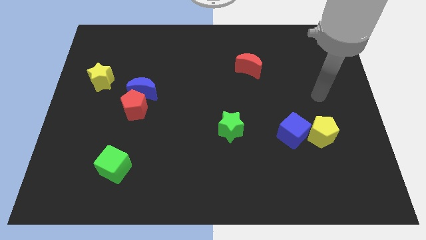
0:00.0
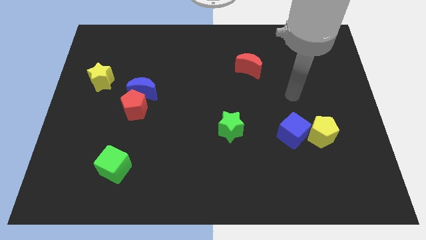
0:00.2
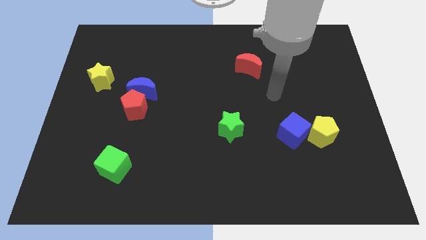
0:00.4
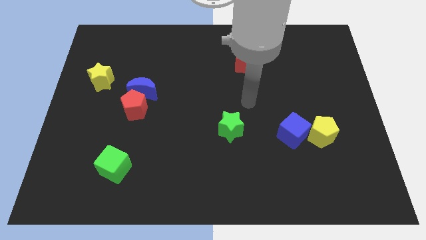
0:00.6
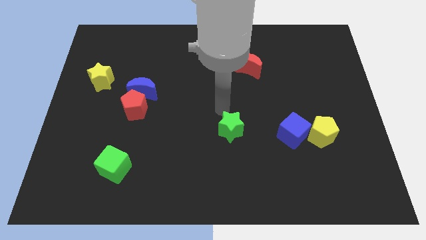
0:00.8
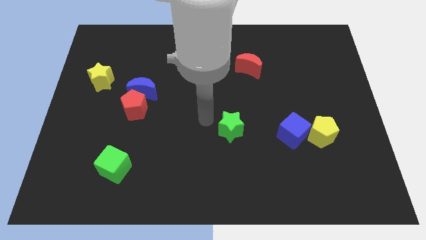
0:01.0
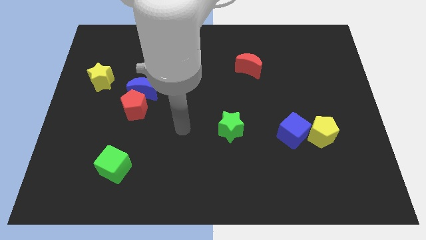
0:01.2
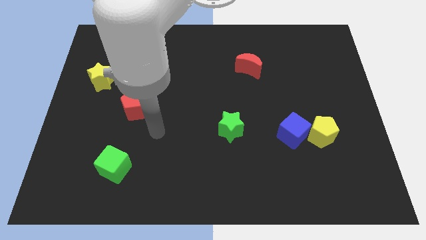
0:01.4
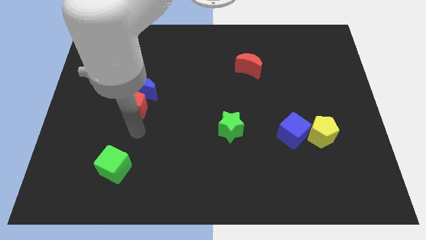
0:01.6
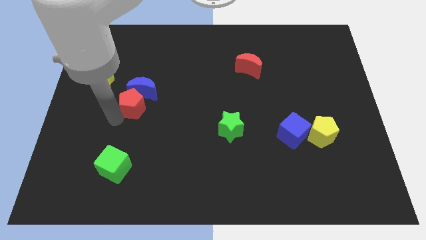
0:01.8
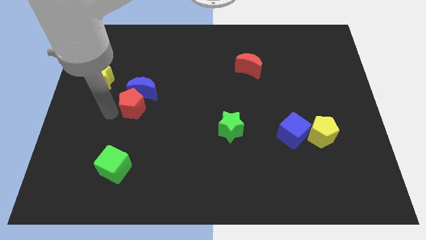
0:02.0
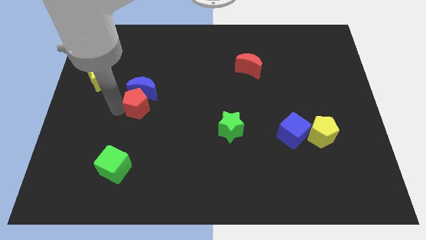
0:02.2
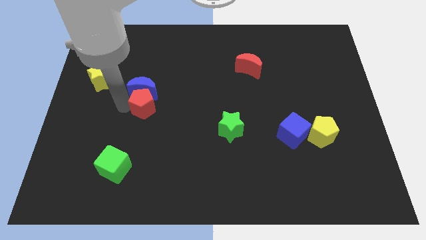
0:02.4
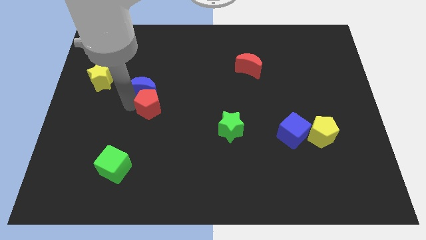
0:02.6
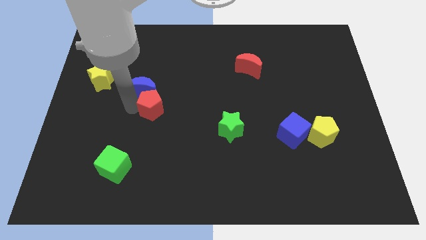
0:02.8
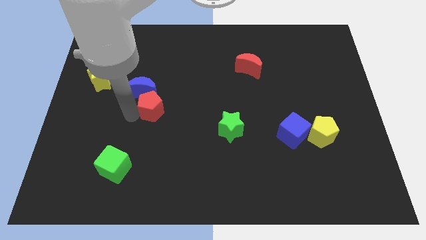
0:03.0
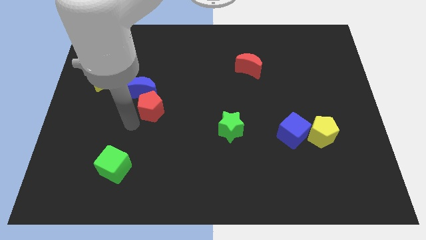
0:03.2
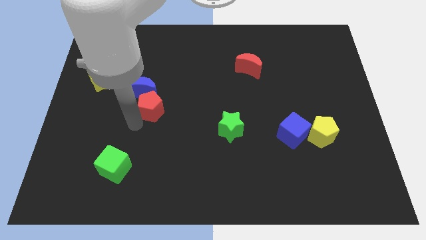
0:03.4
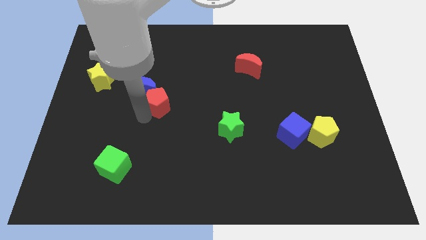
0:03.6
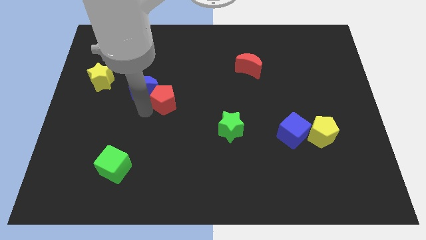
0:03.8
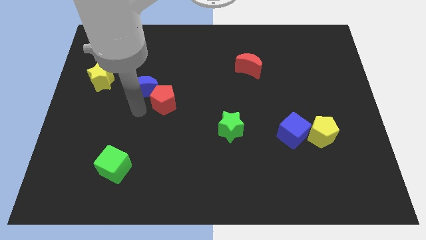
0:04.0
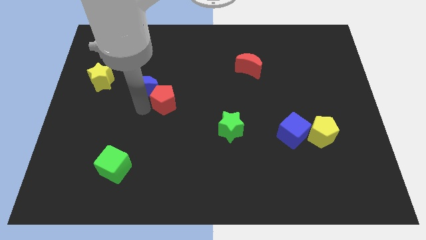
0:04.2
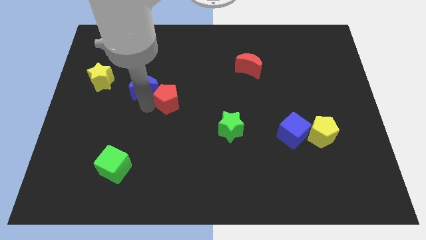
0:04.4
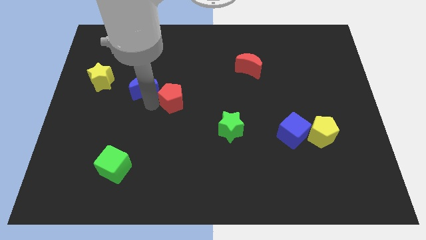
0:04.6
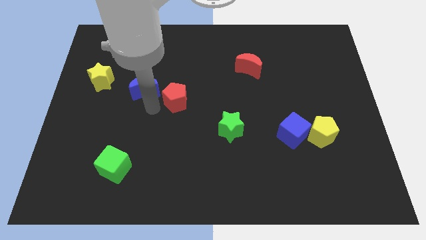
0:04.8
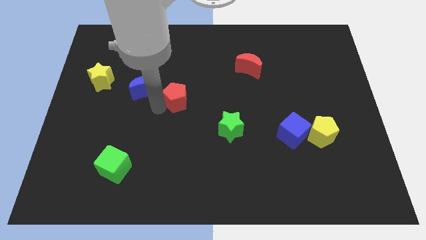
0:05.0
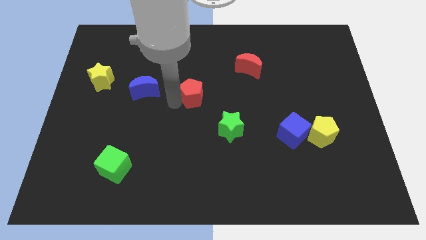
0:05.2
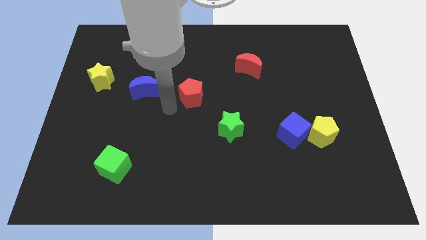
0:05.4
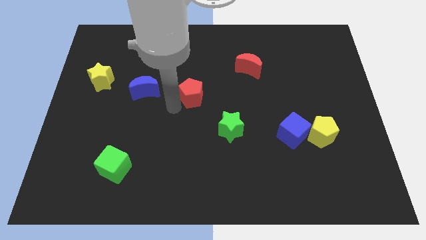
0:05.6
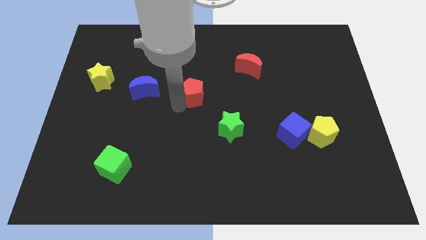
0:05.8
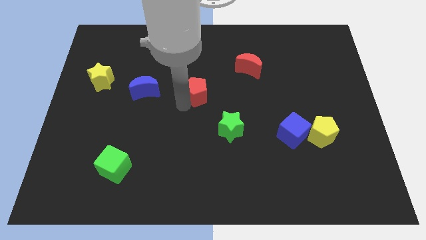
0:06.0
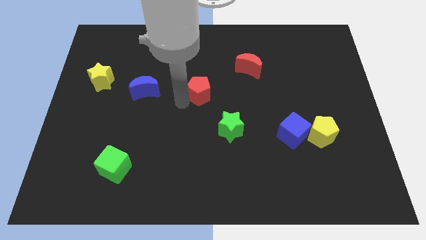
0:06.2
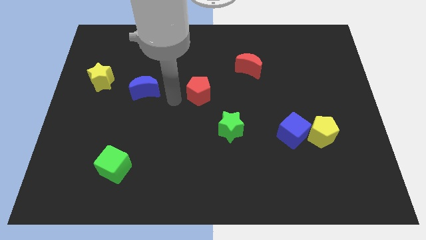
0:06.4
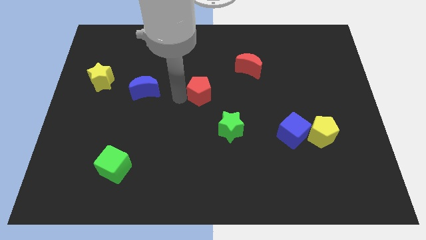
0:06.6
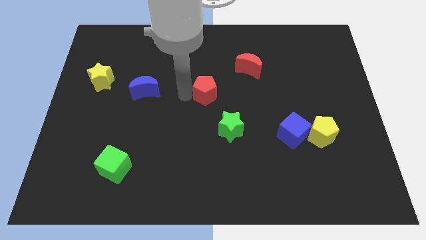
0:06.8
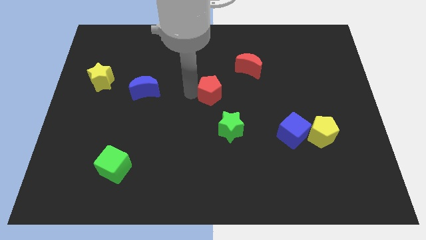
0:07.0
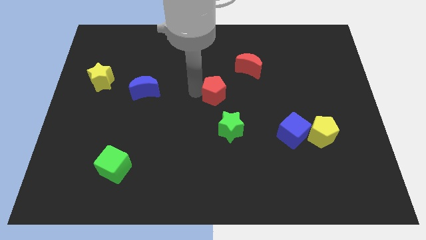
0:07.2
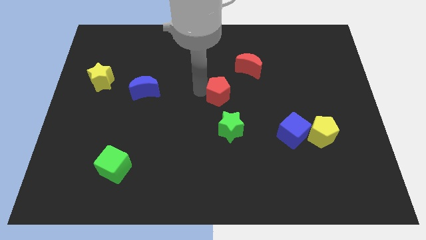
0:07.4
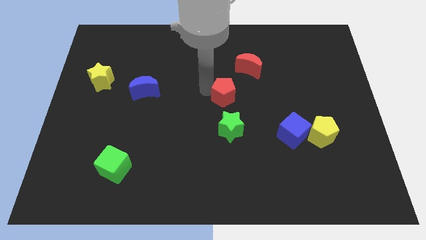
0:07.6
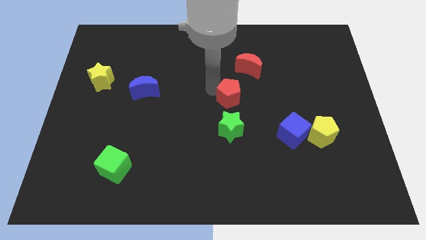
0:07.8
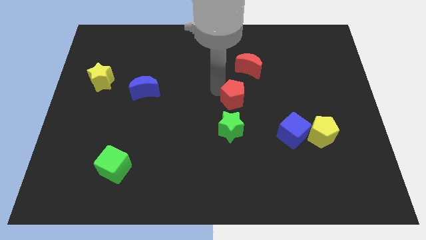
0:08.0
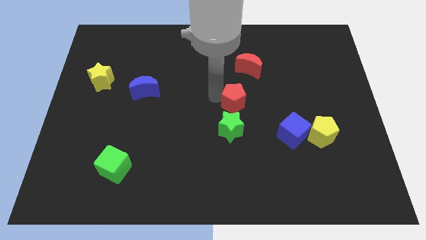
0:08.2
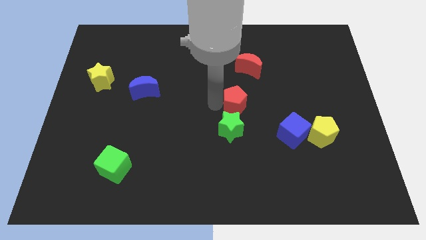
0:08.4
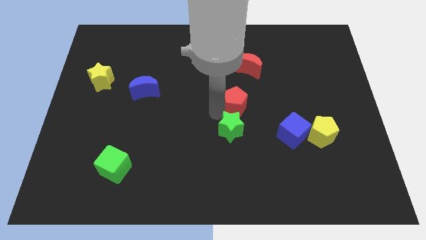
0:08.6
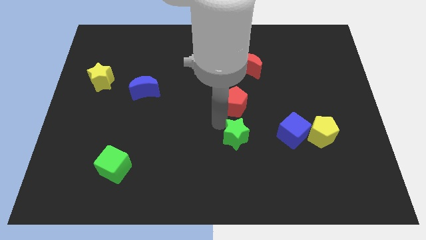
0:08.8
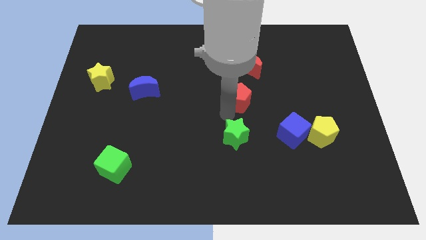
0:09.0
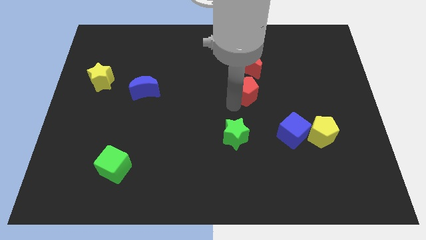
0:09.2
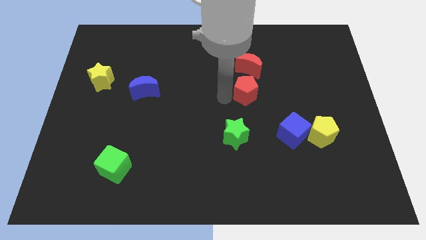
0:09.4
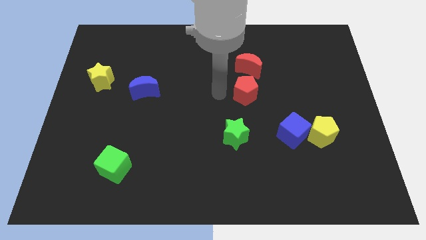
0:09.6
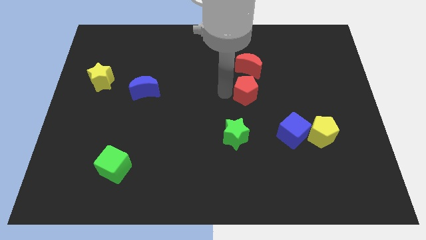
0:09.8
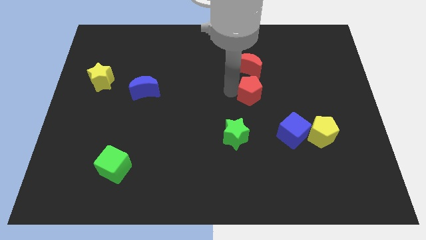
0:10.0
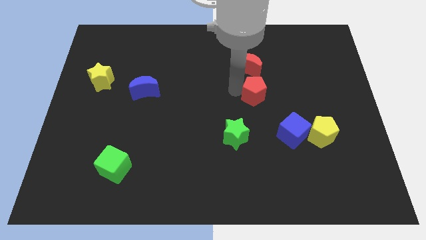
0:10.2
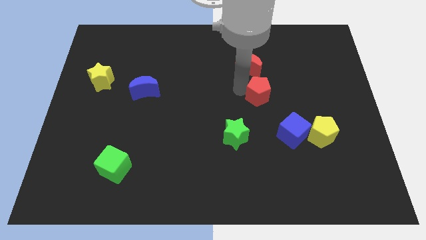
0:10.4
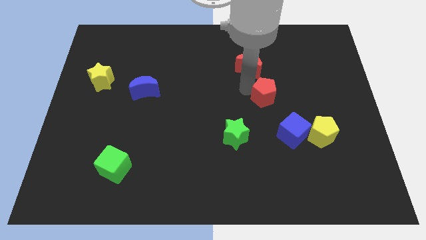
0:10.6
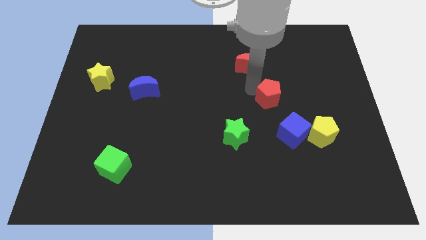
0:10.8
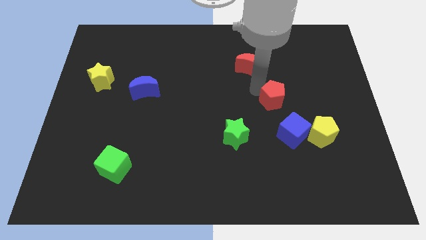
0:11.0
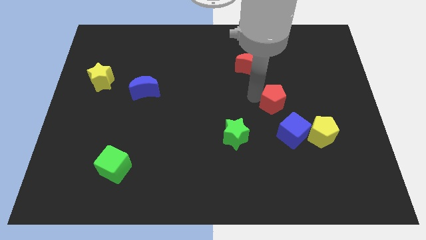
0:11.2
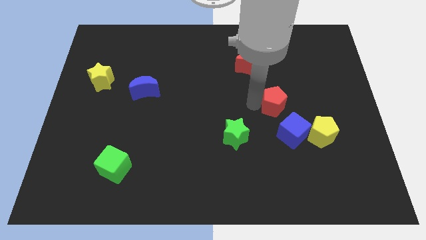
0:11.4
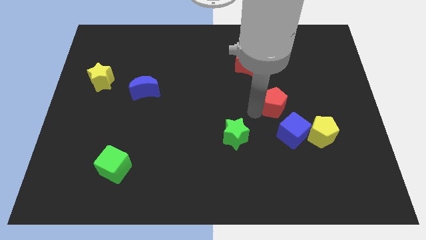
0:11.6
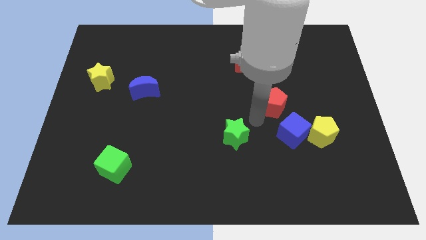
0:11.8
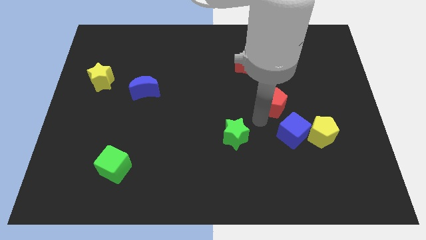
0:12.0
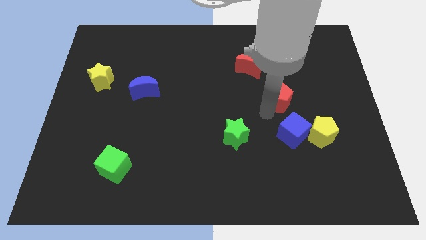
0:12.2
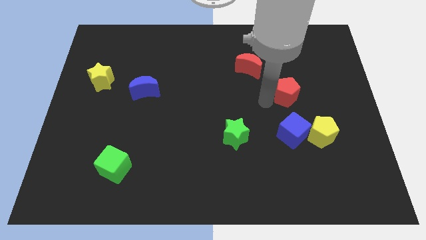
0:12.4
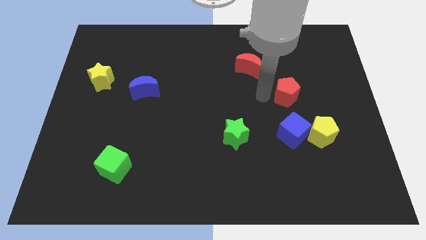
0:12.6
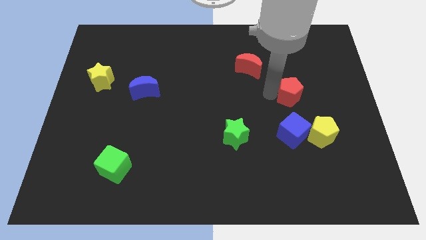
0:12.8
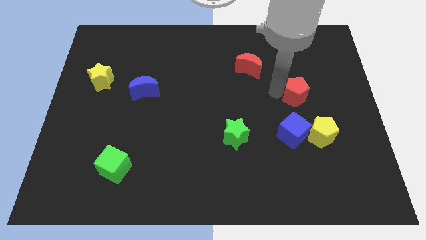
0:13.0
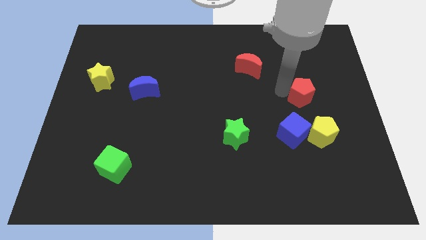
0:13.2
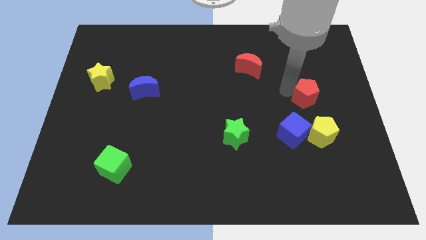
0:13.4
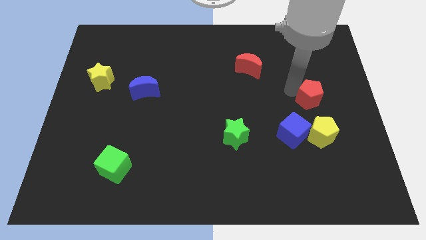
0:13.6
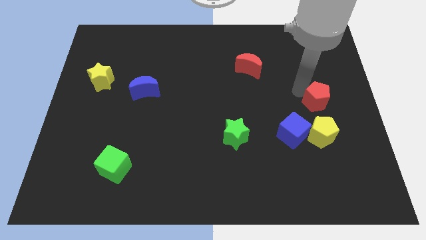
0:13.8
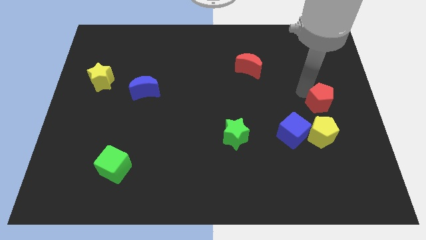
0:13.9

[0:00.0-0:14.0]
put the red pentagon to the right side

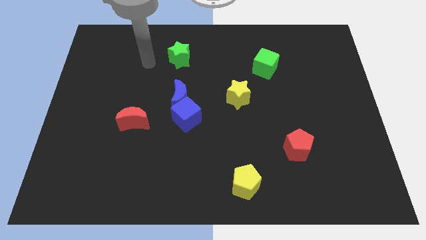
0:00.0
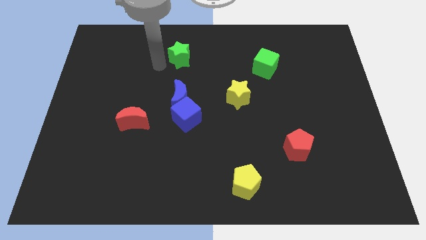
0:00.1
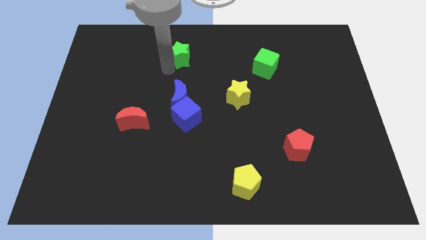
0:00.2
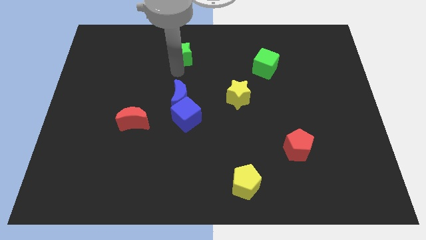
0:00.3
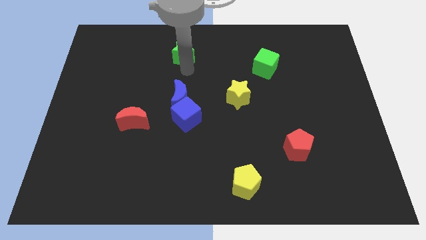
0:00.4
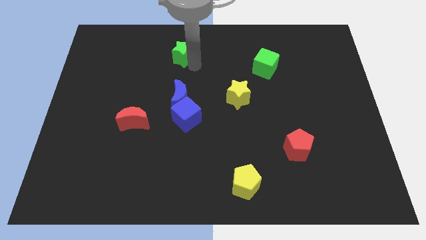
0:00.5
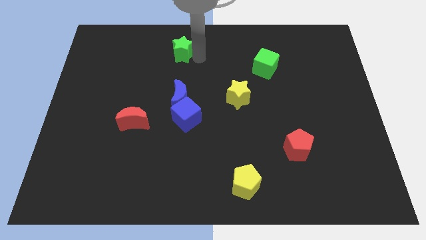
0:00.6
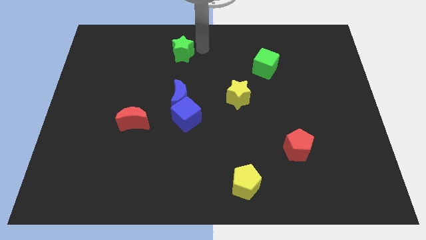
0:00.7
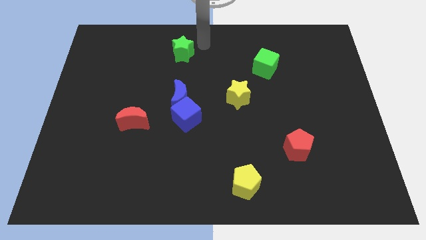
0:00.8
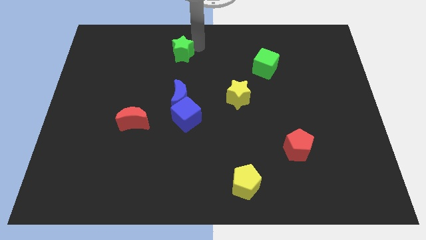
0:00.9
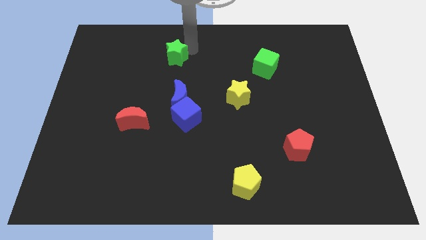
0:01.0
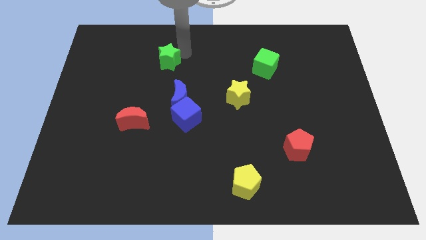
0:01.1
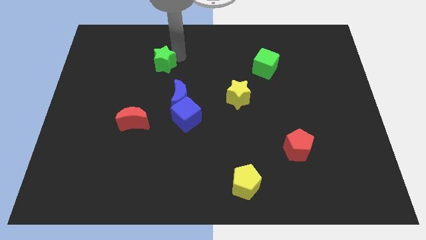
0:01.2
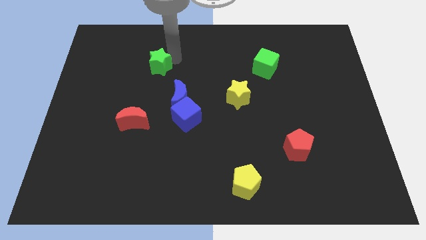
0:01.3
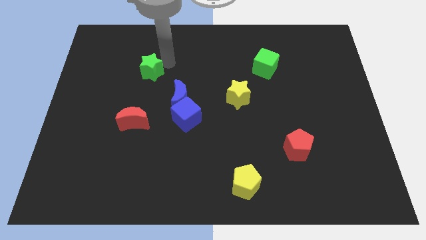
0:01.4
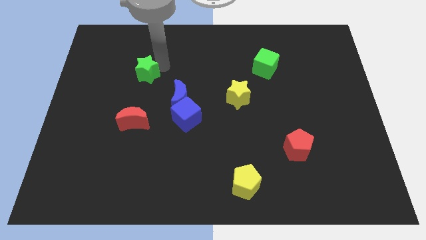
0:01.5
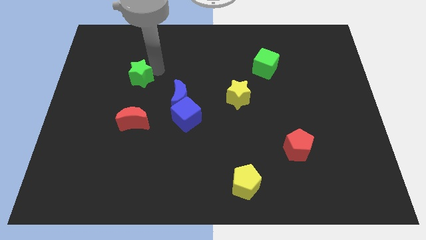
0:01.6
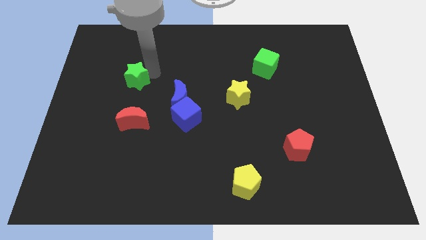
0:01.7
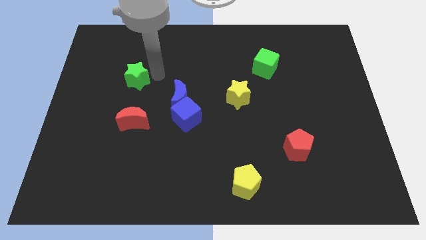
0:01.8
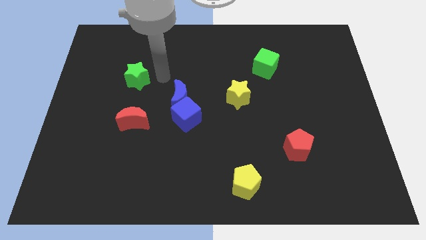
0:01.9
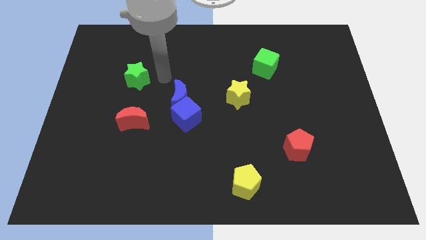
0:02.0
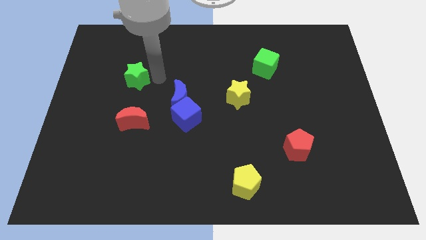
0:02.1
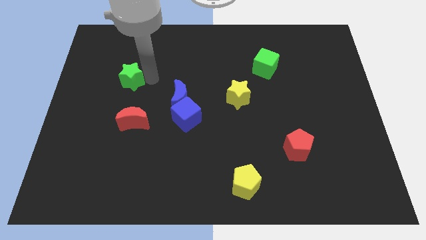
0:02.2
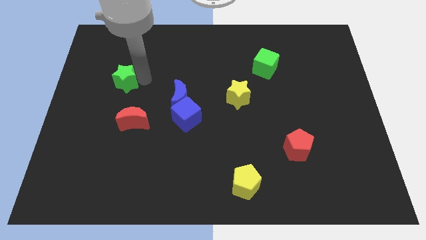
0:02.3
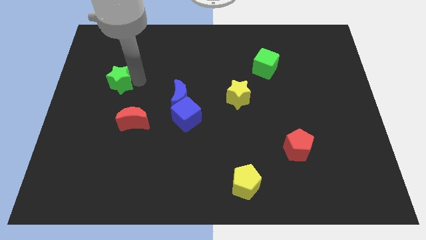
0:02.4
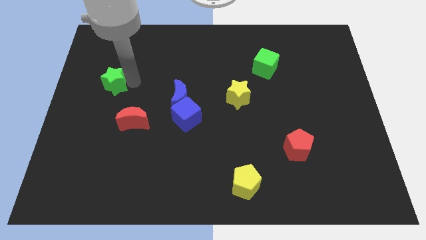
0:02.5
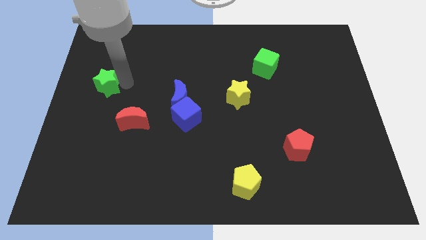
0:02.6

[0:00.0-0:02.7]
slide the green star to the left side
